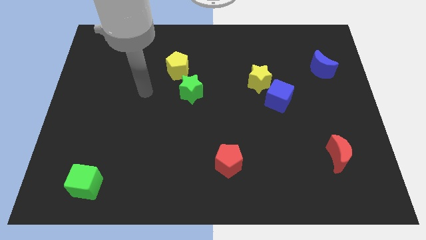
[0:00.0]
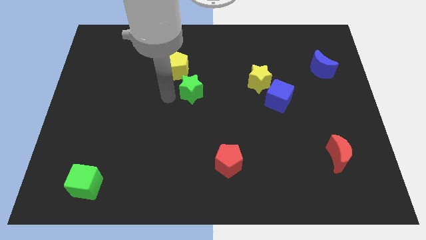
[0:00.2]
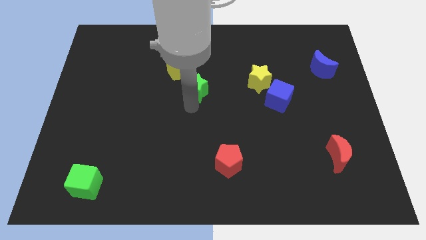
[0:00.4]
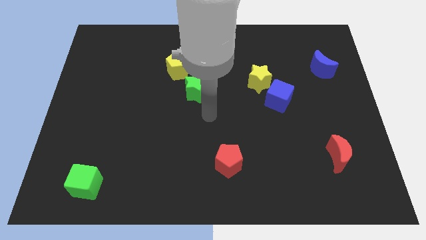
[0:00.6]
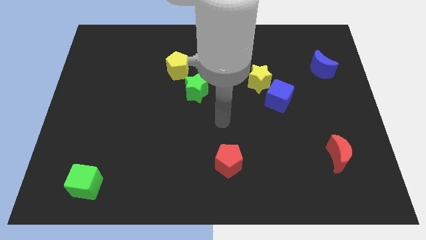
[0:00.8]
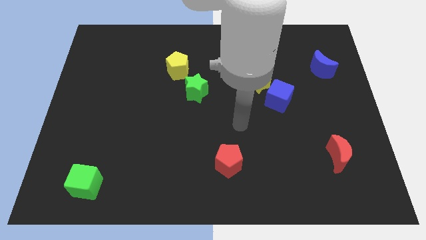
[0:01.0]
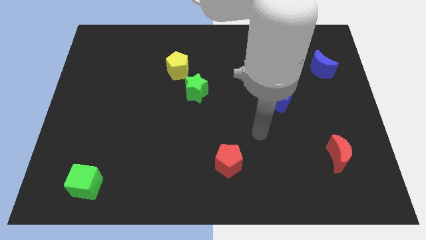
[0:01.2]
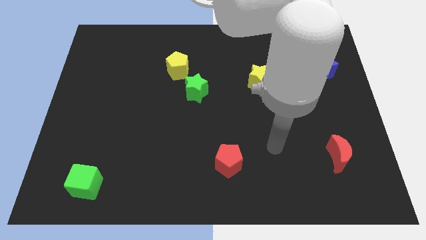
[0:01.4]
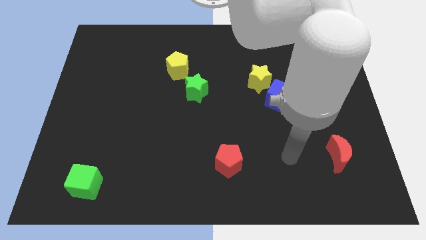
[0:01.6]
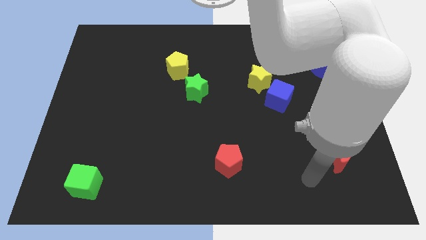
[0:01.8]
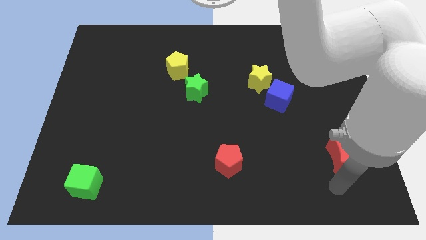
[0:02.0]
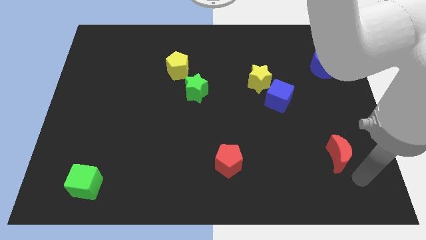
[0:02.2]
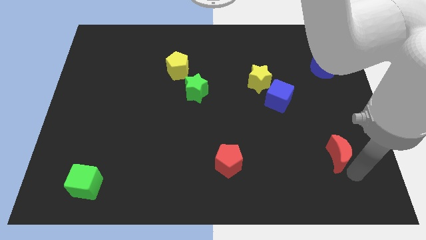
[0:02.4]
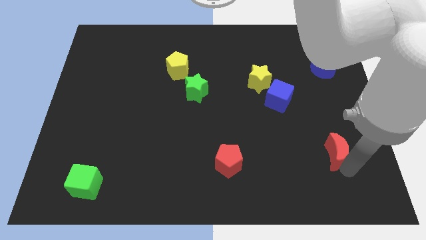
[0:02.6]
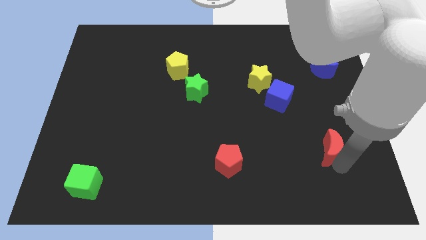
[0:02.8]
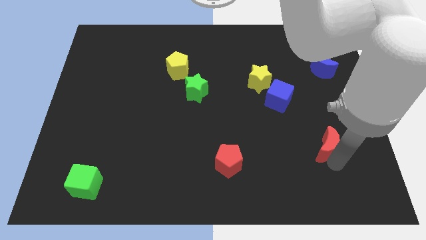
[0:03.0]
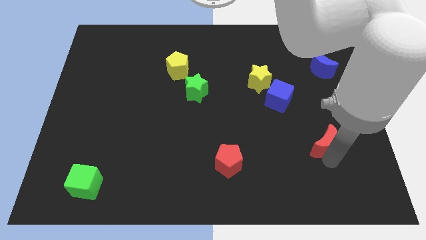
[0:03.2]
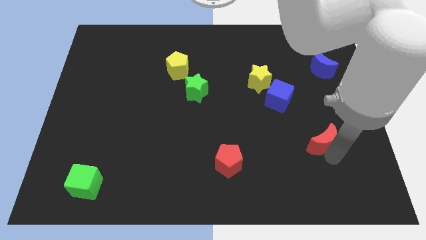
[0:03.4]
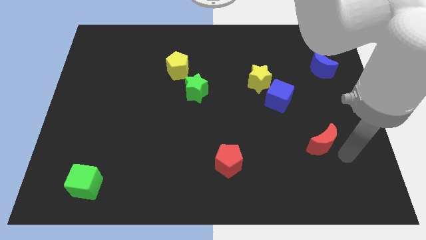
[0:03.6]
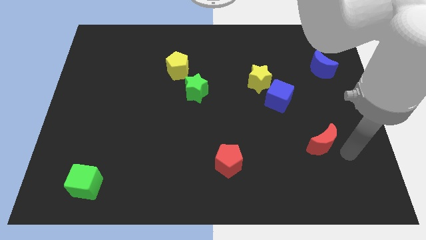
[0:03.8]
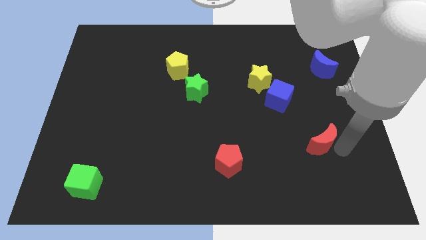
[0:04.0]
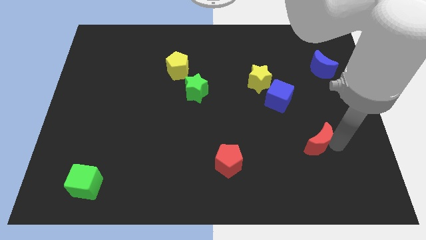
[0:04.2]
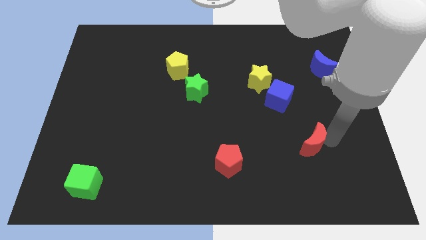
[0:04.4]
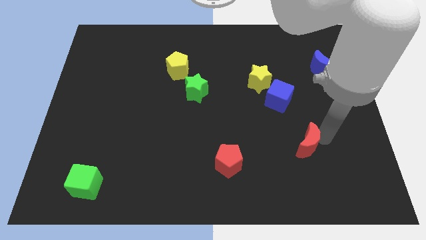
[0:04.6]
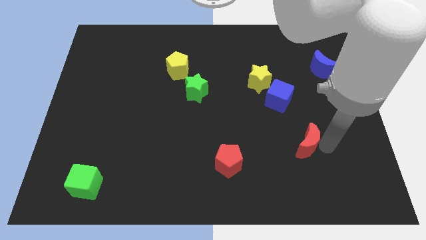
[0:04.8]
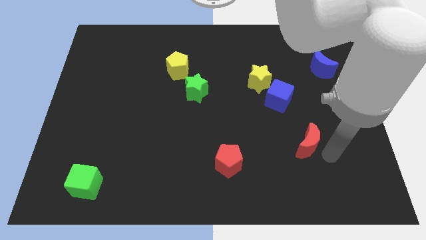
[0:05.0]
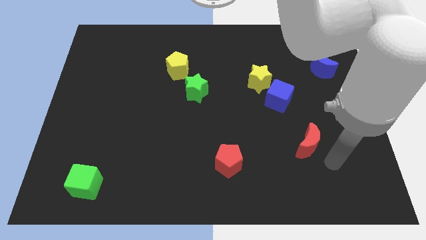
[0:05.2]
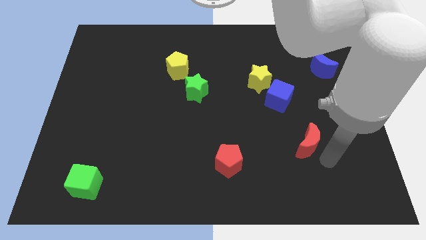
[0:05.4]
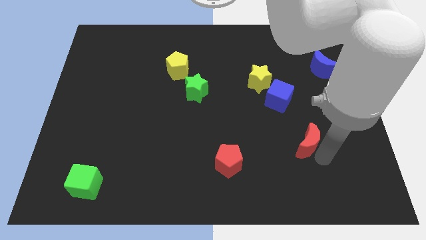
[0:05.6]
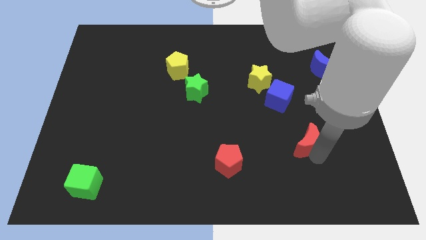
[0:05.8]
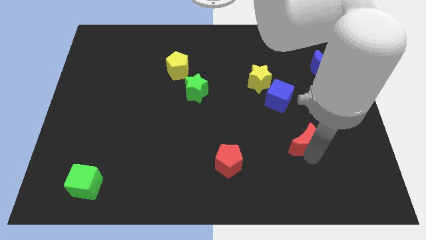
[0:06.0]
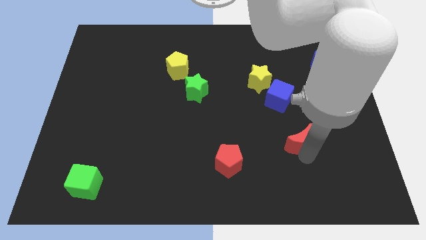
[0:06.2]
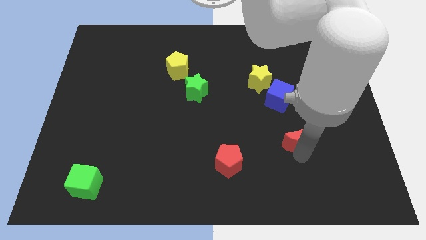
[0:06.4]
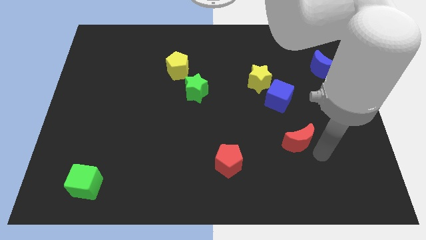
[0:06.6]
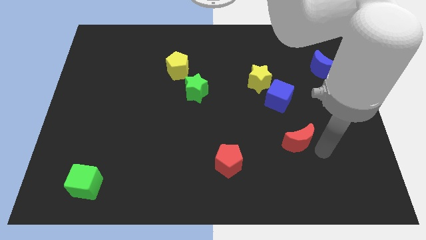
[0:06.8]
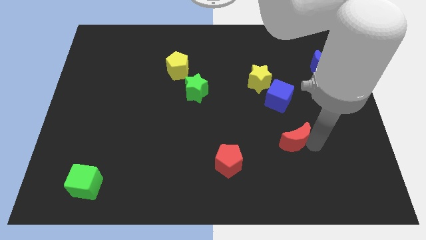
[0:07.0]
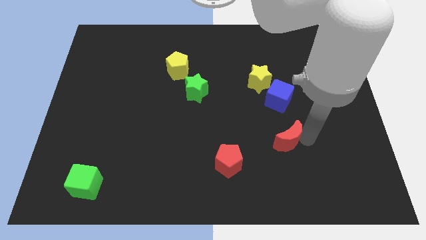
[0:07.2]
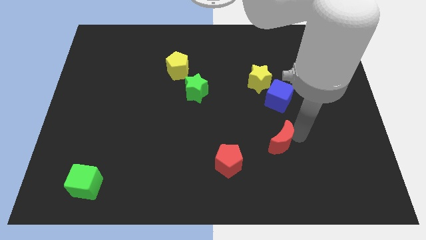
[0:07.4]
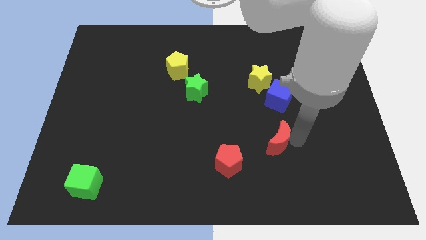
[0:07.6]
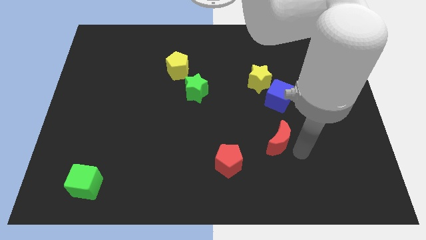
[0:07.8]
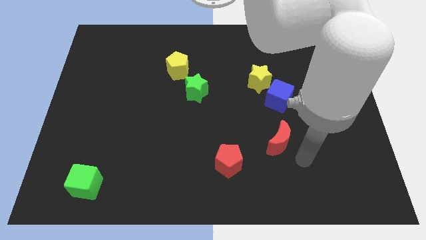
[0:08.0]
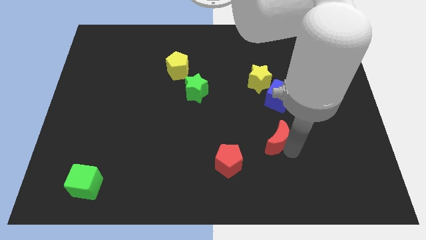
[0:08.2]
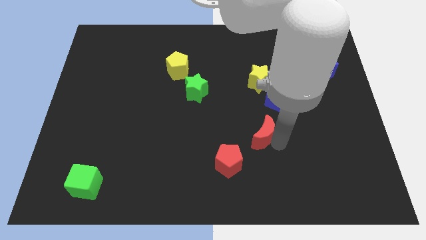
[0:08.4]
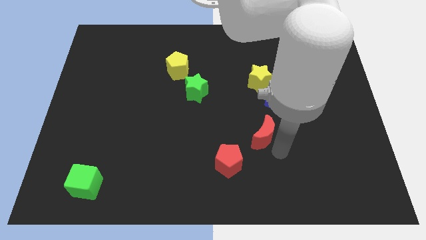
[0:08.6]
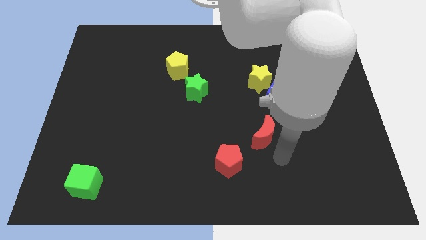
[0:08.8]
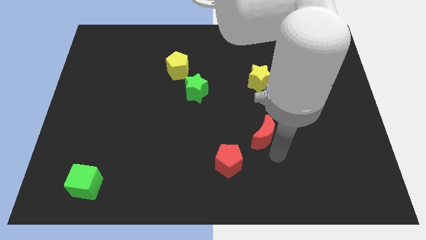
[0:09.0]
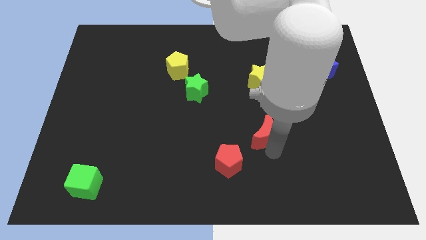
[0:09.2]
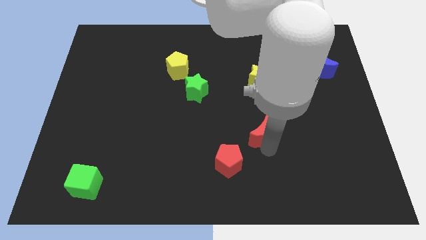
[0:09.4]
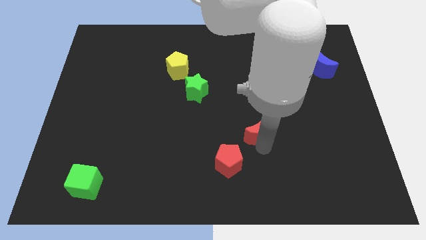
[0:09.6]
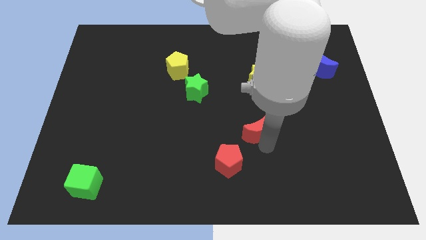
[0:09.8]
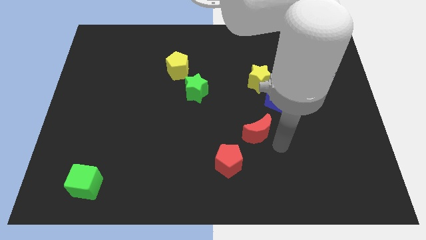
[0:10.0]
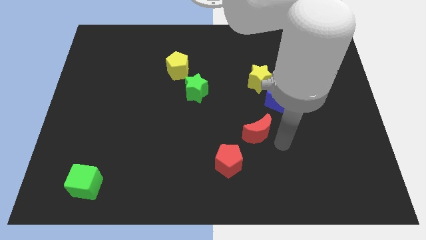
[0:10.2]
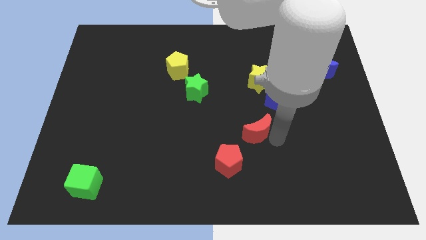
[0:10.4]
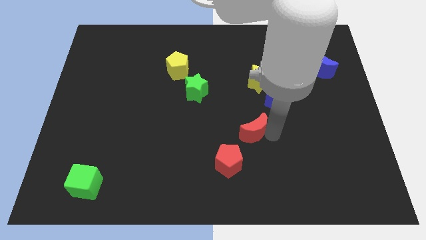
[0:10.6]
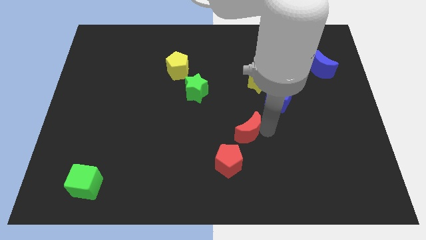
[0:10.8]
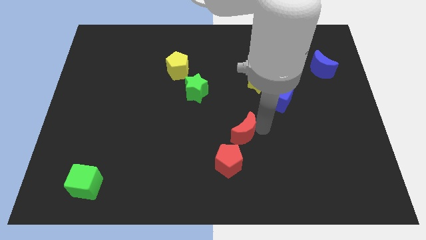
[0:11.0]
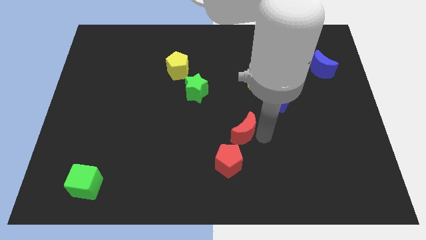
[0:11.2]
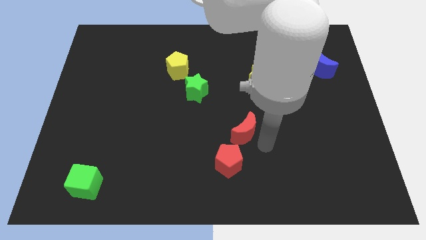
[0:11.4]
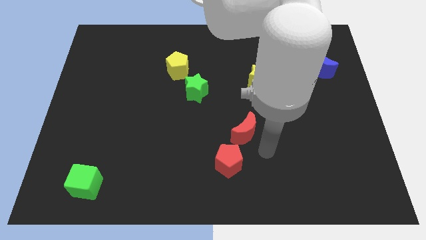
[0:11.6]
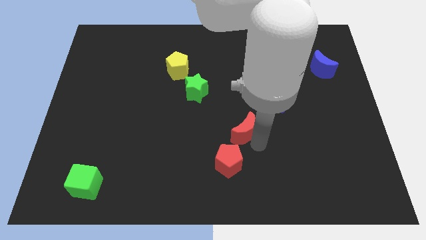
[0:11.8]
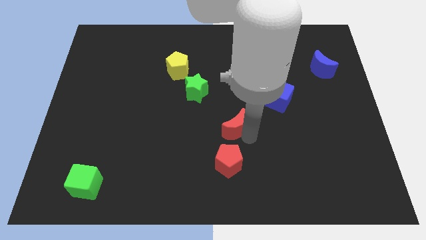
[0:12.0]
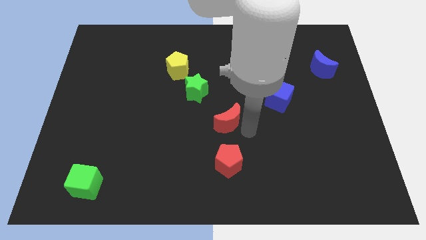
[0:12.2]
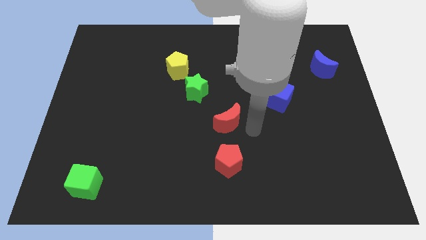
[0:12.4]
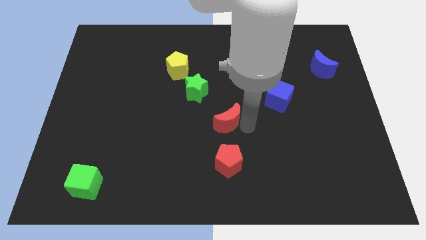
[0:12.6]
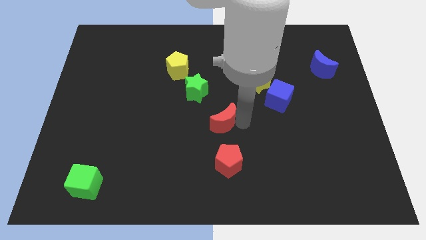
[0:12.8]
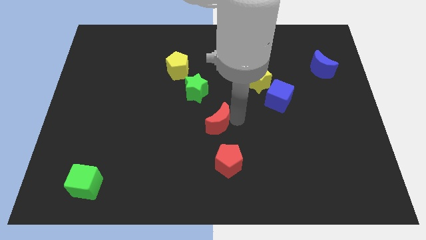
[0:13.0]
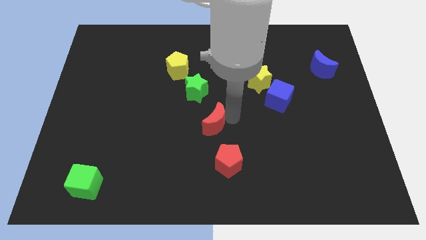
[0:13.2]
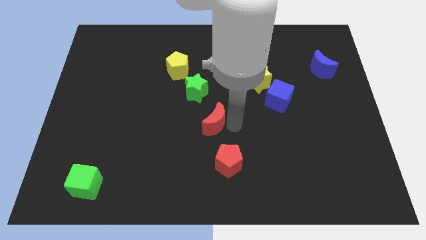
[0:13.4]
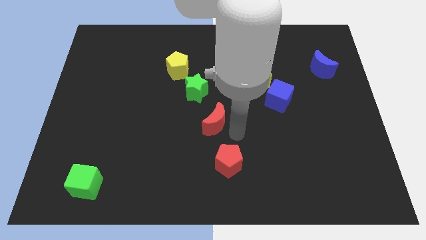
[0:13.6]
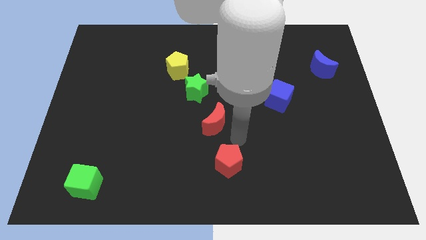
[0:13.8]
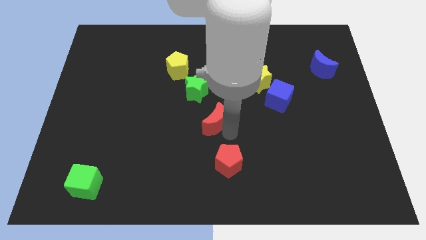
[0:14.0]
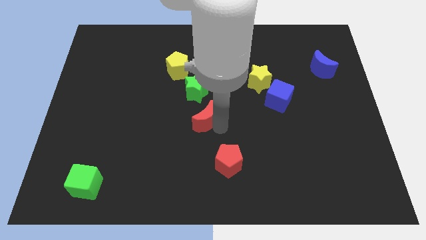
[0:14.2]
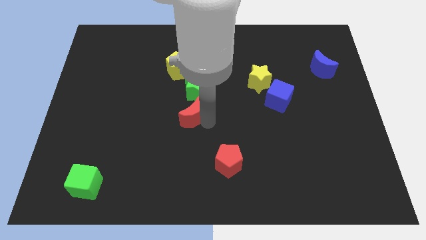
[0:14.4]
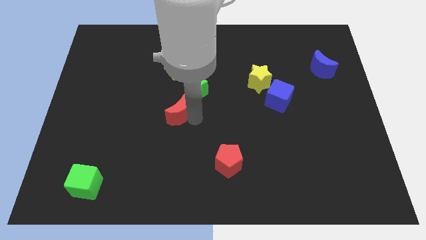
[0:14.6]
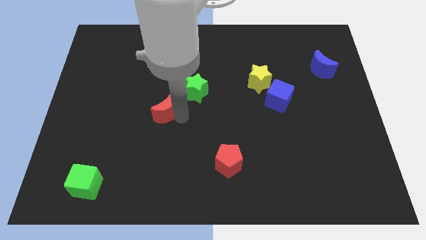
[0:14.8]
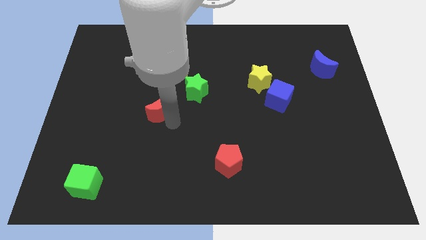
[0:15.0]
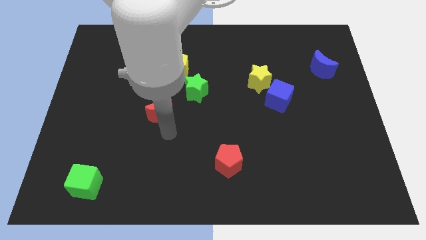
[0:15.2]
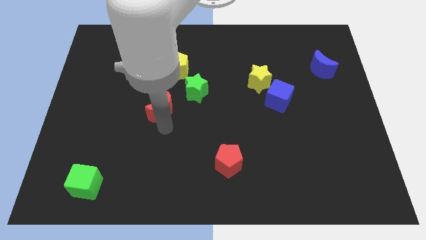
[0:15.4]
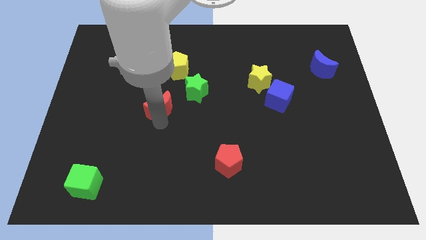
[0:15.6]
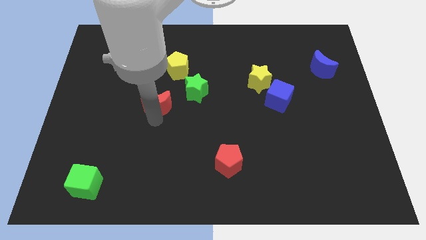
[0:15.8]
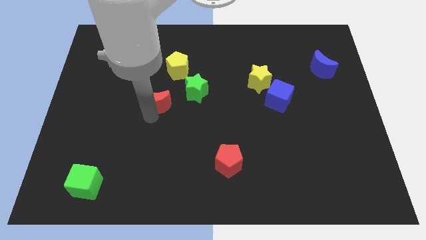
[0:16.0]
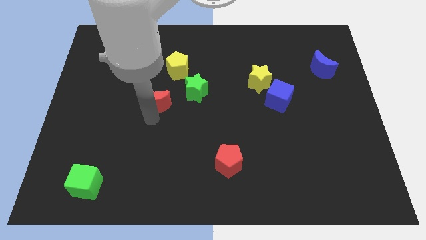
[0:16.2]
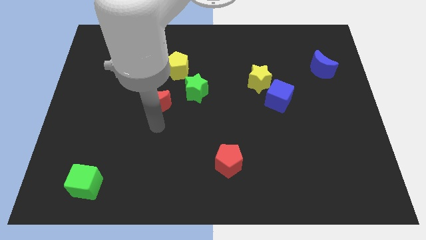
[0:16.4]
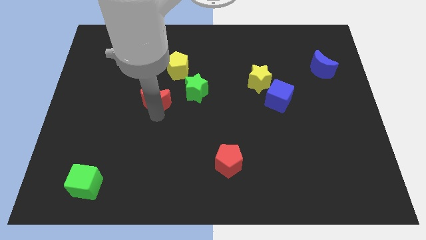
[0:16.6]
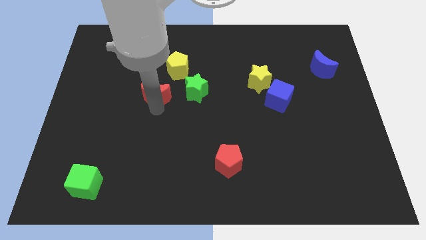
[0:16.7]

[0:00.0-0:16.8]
put the red moon diagonally down and to the left of the yellow pentagon
